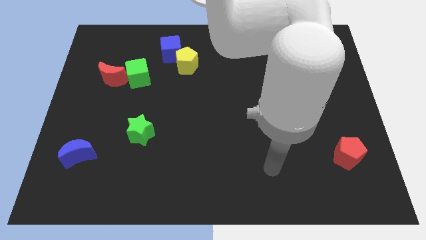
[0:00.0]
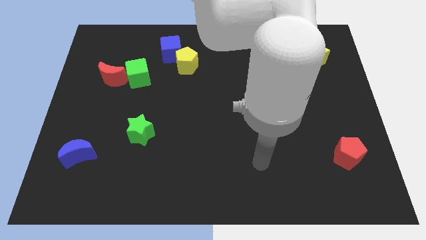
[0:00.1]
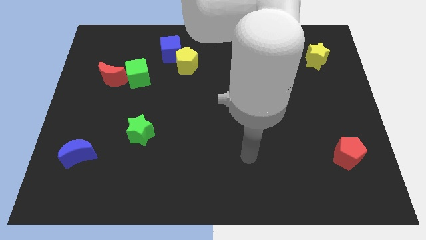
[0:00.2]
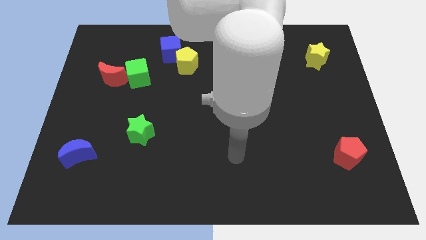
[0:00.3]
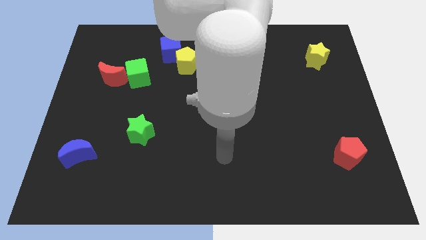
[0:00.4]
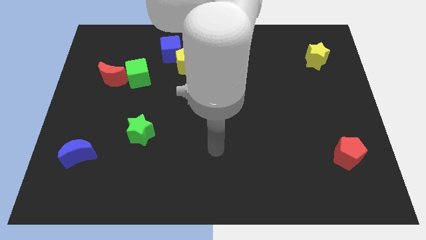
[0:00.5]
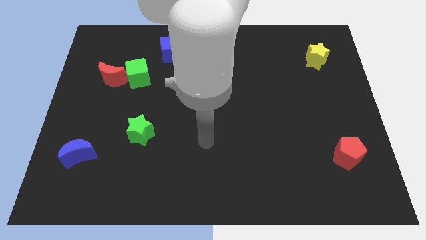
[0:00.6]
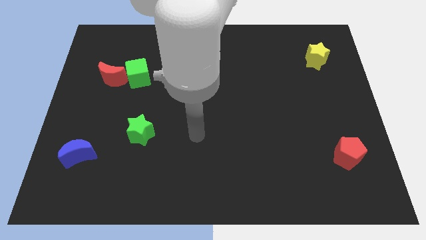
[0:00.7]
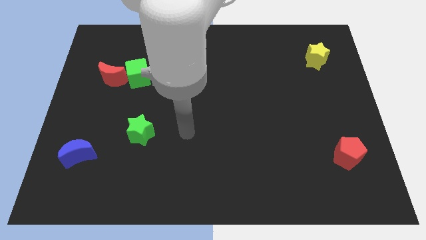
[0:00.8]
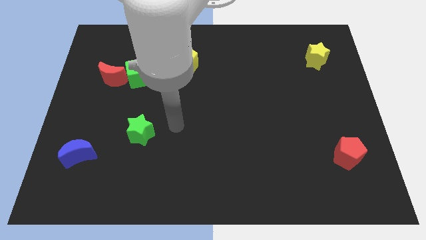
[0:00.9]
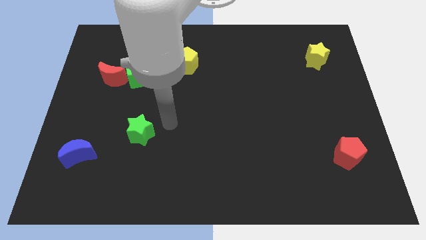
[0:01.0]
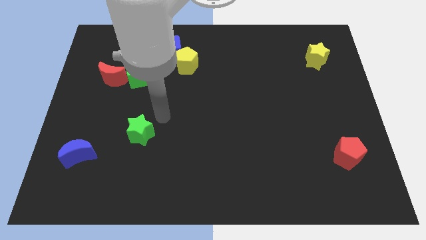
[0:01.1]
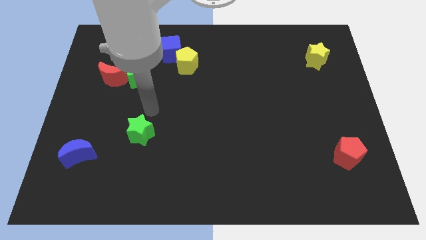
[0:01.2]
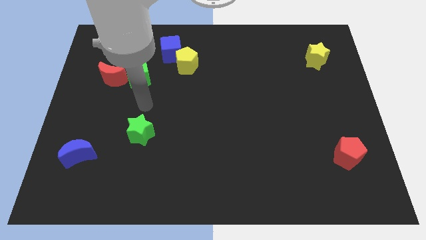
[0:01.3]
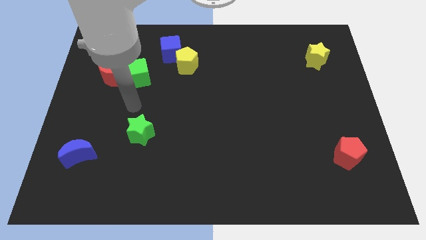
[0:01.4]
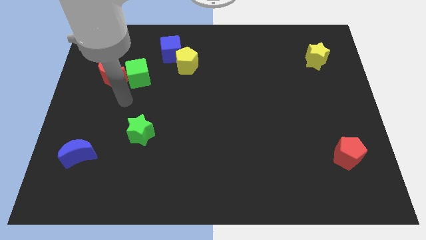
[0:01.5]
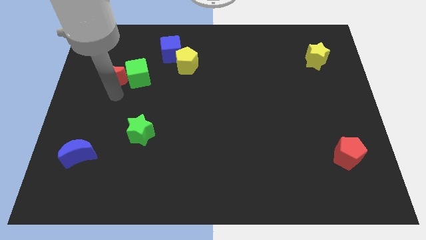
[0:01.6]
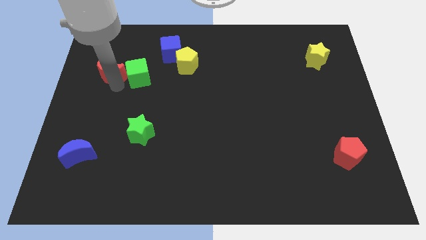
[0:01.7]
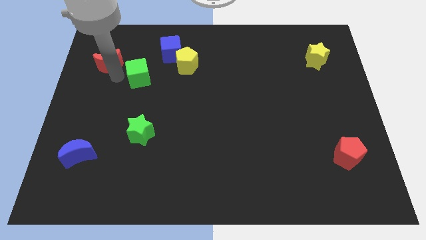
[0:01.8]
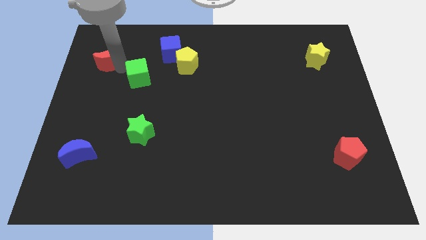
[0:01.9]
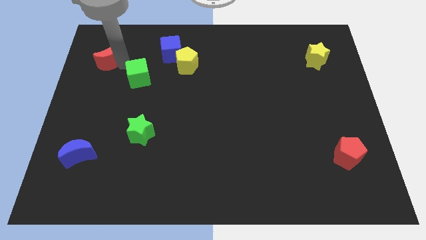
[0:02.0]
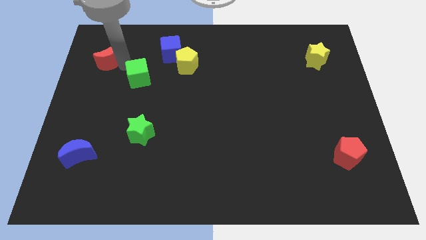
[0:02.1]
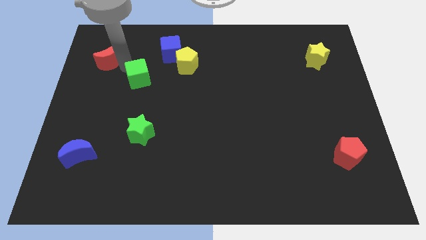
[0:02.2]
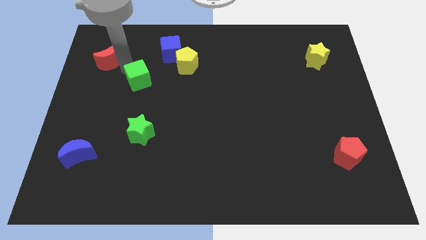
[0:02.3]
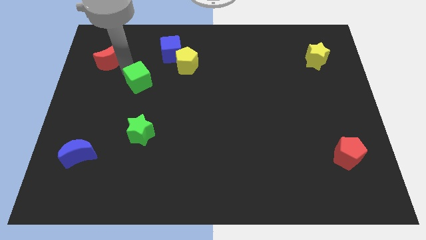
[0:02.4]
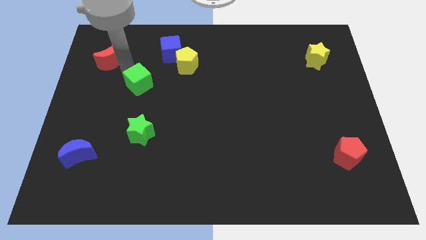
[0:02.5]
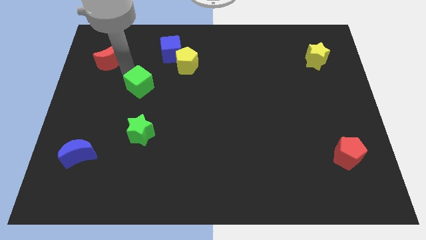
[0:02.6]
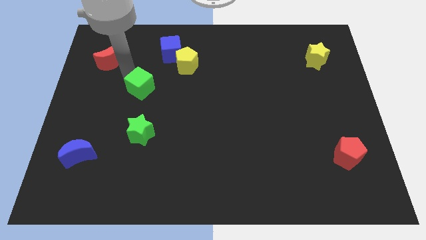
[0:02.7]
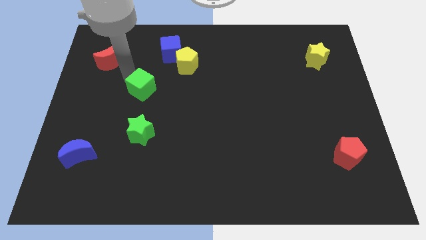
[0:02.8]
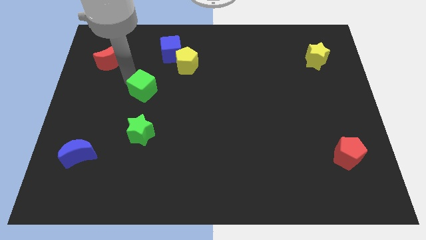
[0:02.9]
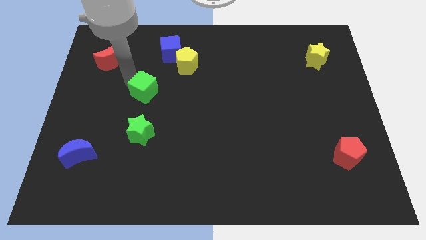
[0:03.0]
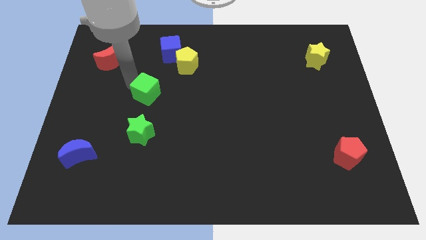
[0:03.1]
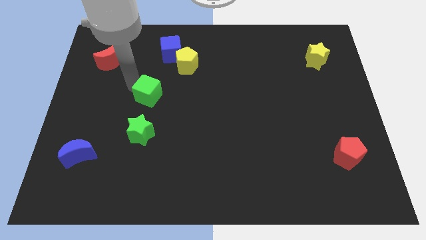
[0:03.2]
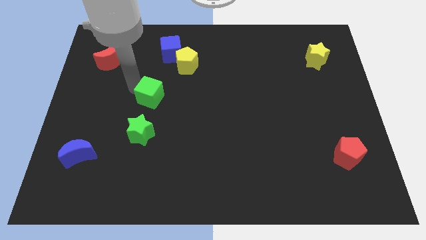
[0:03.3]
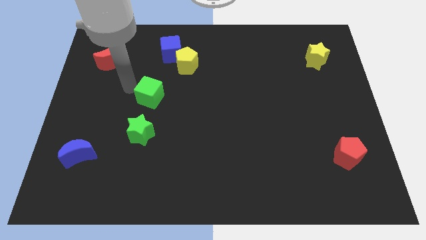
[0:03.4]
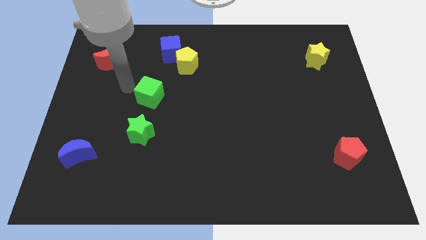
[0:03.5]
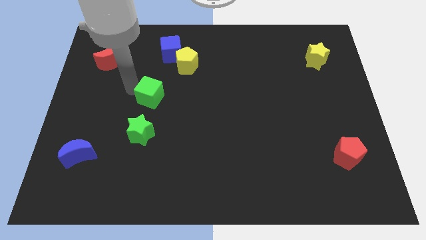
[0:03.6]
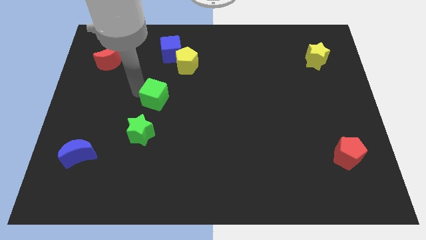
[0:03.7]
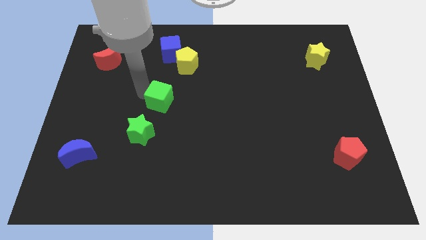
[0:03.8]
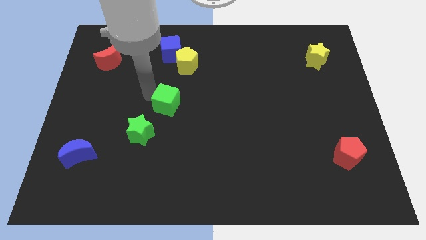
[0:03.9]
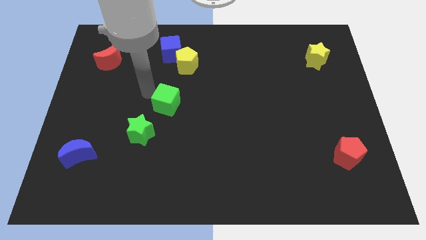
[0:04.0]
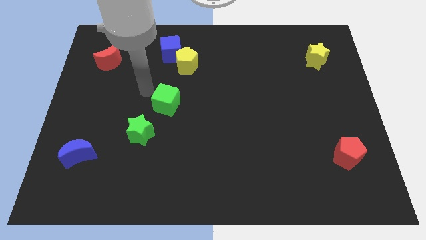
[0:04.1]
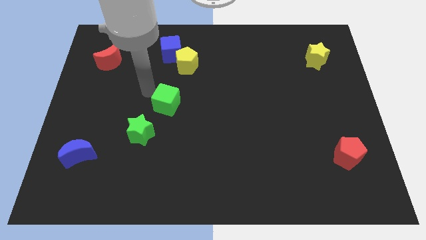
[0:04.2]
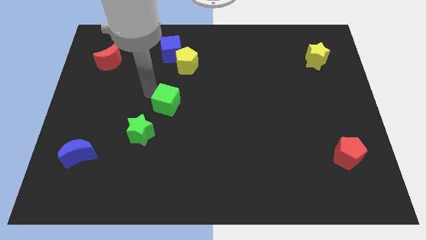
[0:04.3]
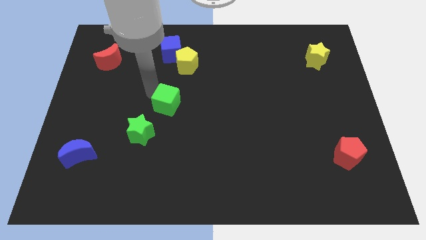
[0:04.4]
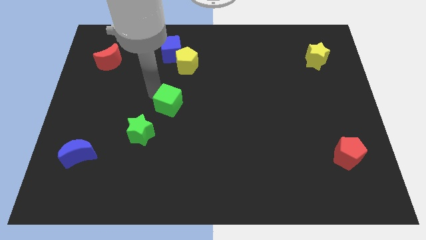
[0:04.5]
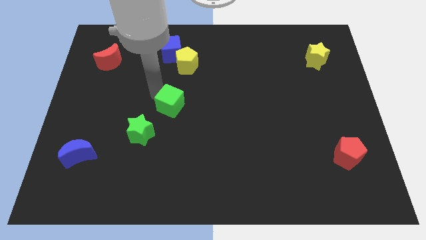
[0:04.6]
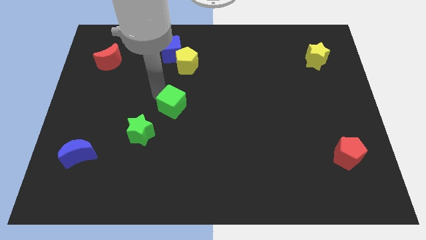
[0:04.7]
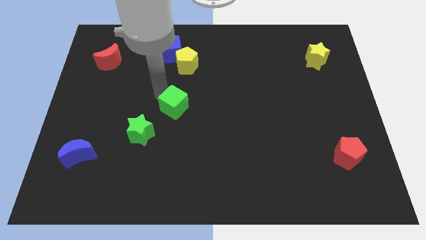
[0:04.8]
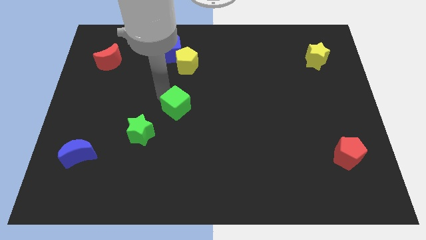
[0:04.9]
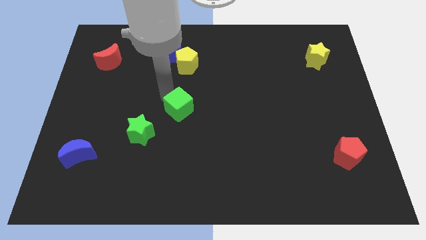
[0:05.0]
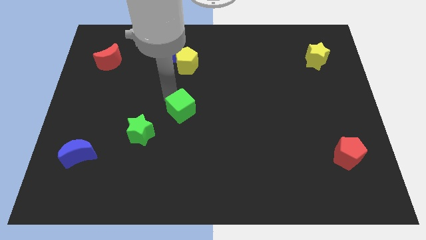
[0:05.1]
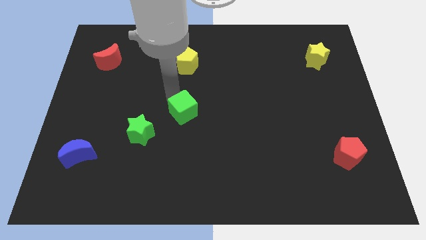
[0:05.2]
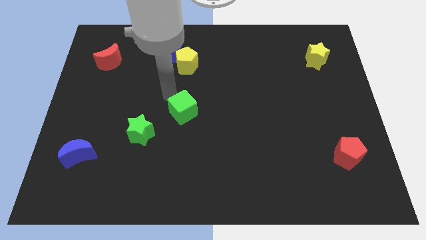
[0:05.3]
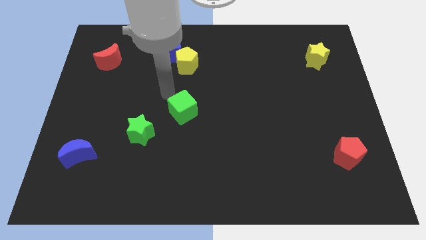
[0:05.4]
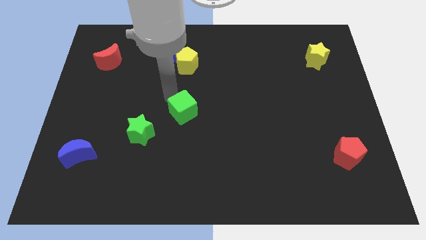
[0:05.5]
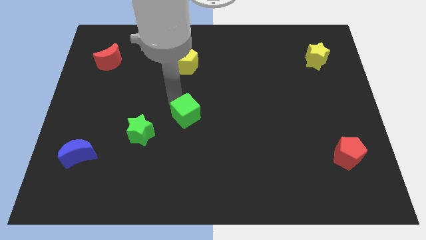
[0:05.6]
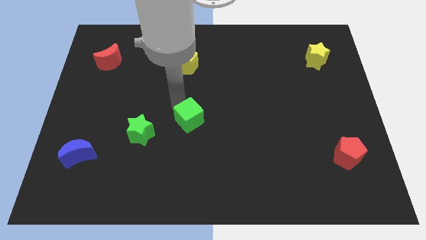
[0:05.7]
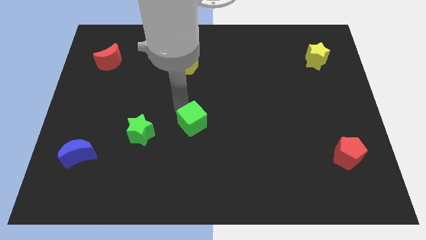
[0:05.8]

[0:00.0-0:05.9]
push the green cube downwards and right

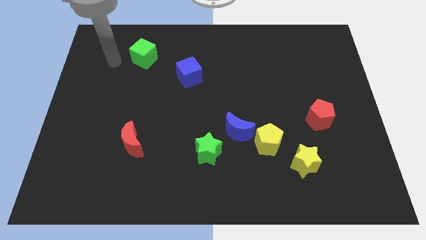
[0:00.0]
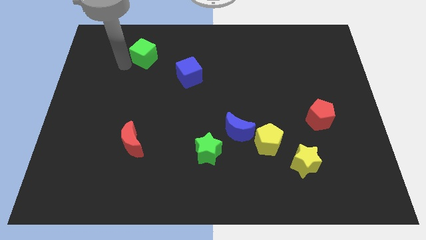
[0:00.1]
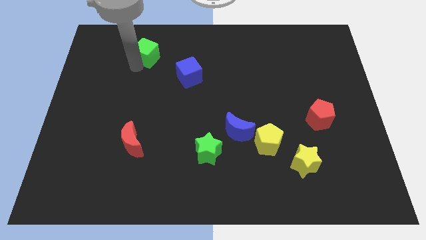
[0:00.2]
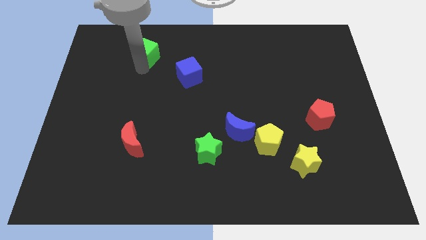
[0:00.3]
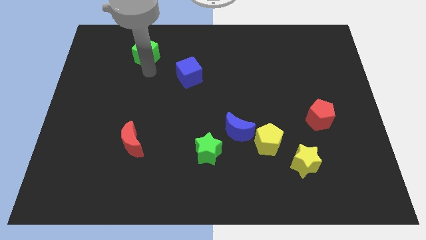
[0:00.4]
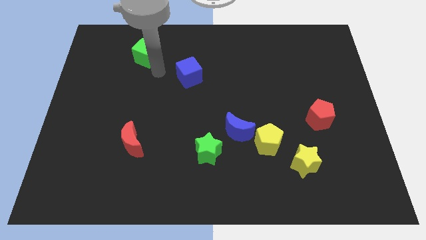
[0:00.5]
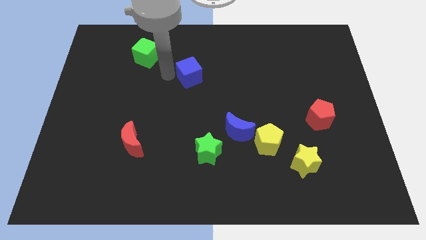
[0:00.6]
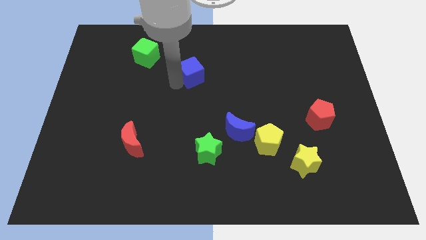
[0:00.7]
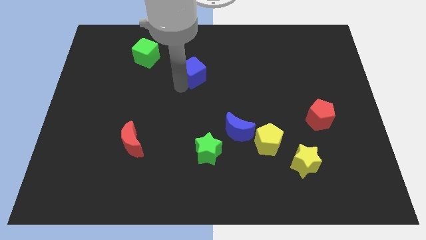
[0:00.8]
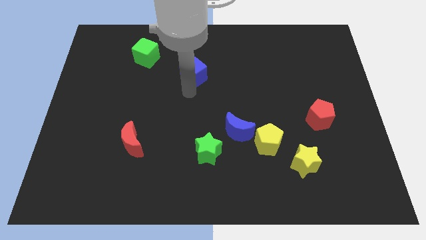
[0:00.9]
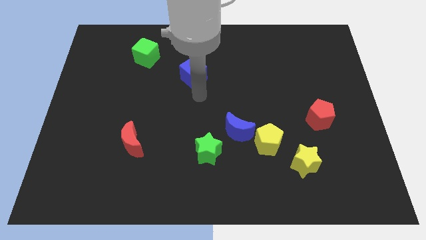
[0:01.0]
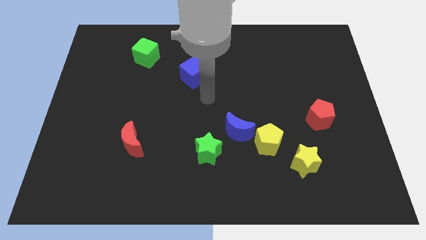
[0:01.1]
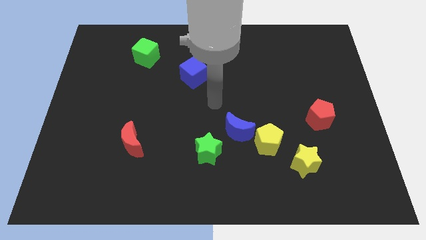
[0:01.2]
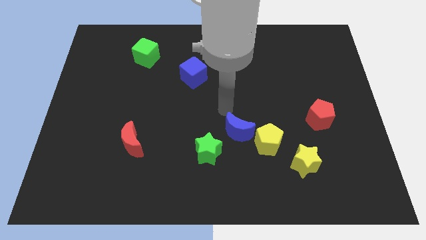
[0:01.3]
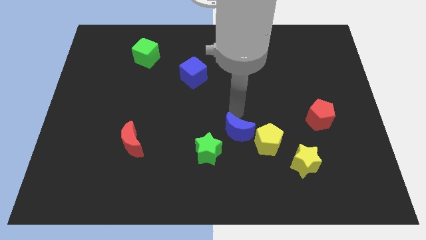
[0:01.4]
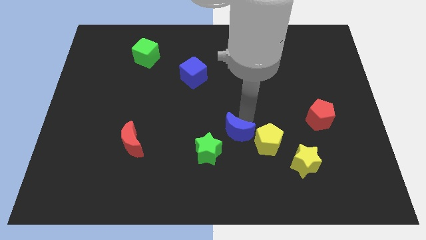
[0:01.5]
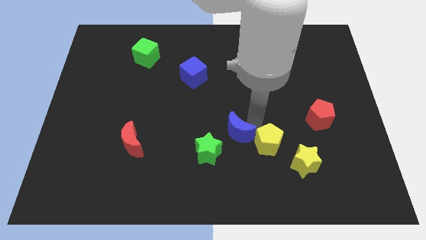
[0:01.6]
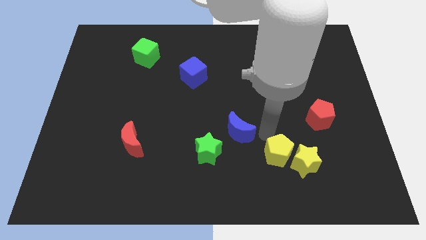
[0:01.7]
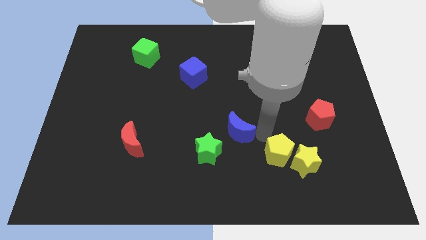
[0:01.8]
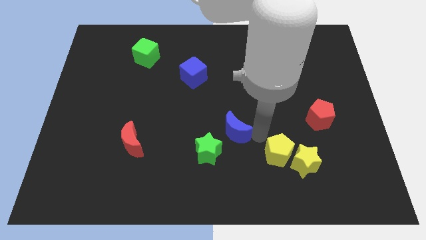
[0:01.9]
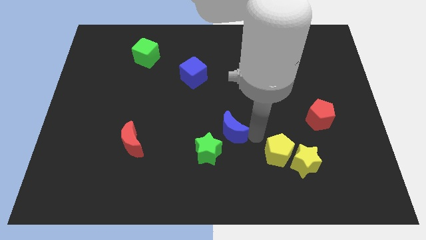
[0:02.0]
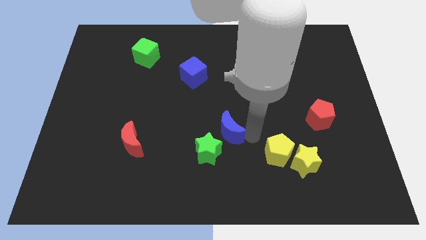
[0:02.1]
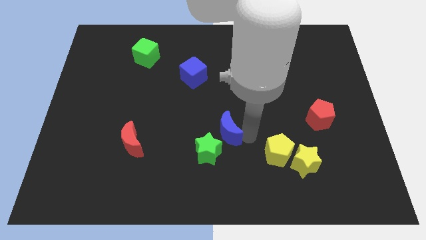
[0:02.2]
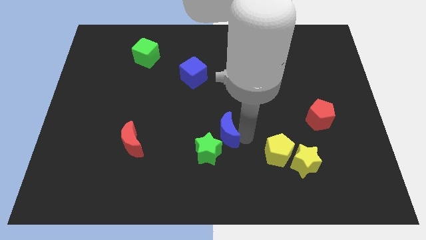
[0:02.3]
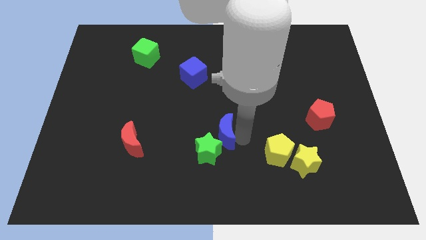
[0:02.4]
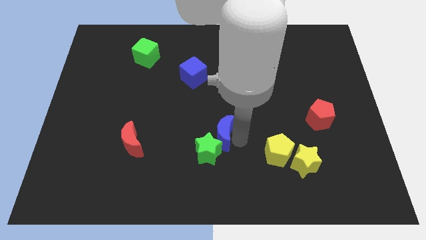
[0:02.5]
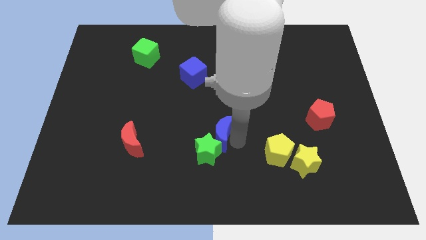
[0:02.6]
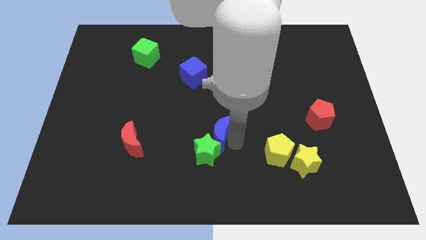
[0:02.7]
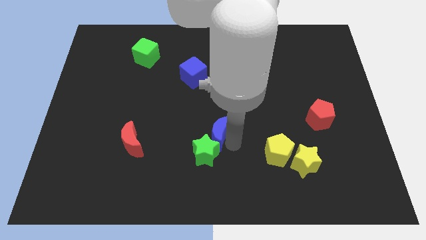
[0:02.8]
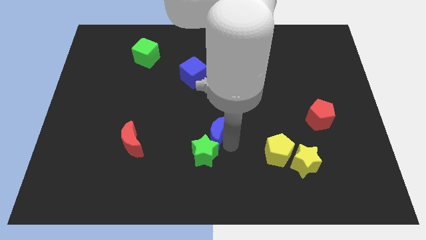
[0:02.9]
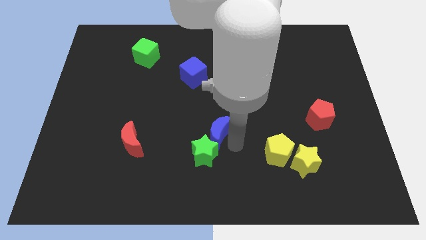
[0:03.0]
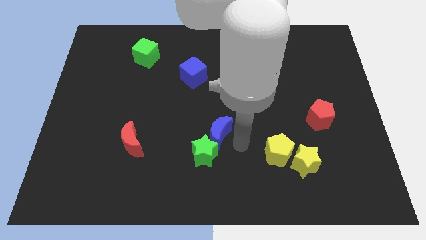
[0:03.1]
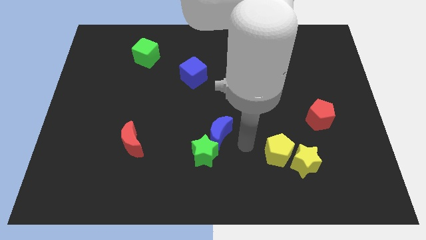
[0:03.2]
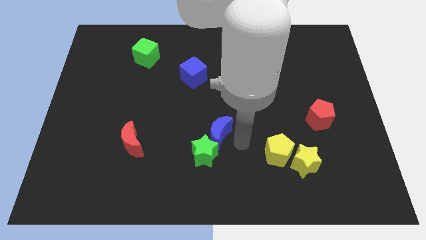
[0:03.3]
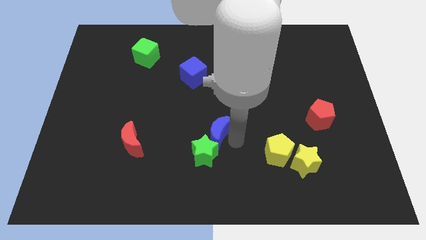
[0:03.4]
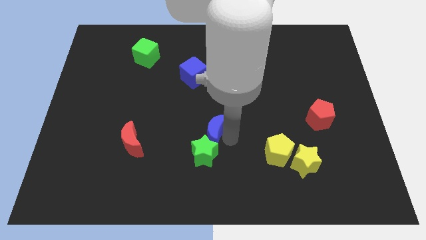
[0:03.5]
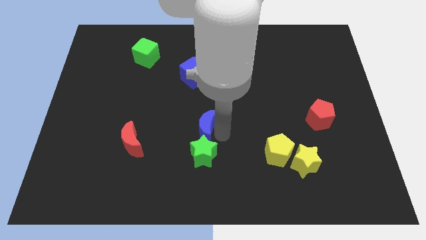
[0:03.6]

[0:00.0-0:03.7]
move the blue moon a little to the left
